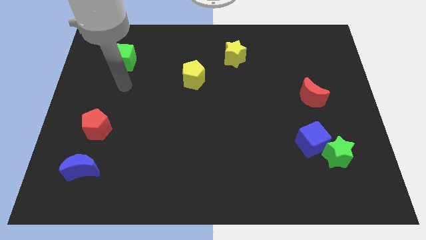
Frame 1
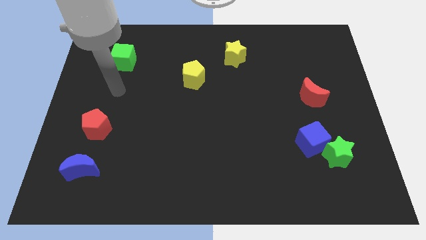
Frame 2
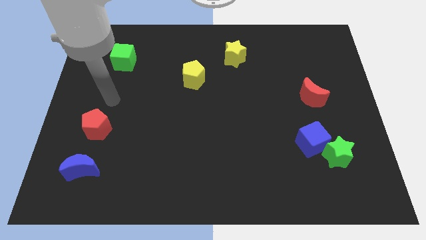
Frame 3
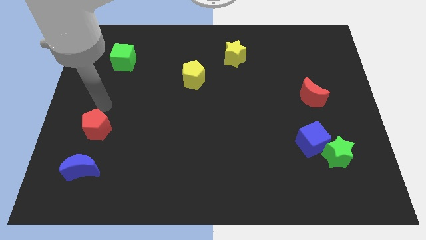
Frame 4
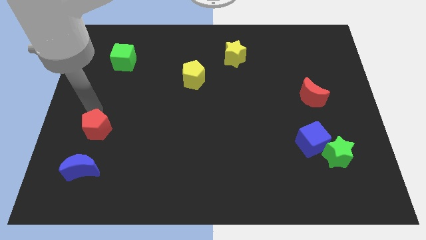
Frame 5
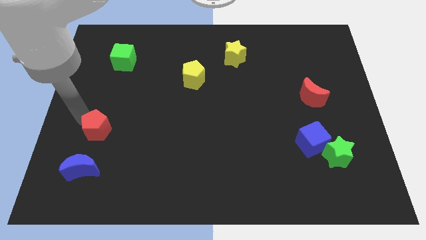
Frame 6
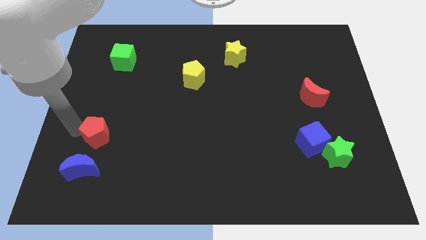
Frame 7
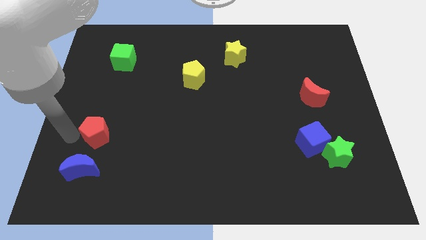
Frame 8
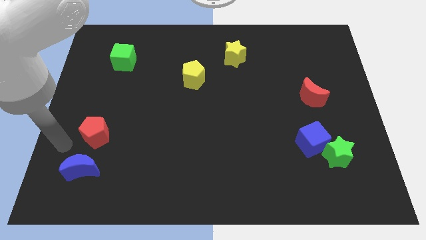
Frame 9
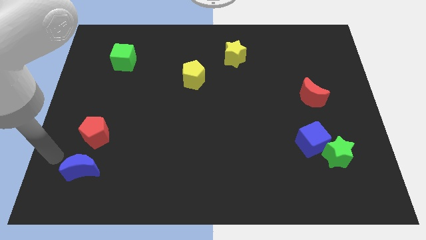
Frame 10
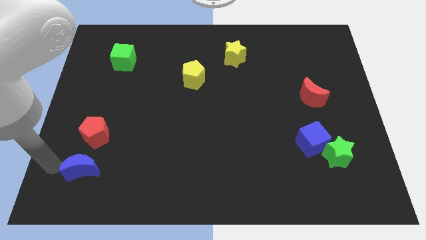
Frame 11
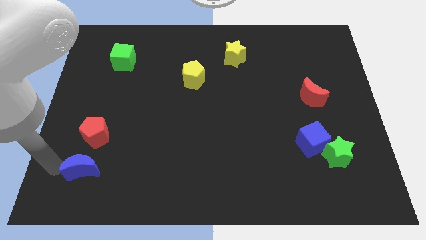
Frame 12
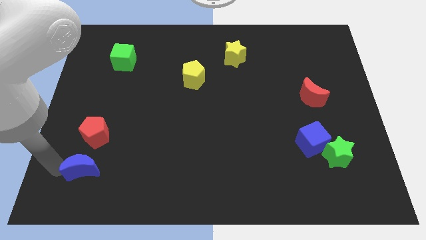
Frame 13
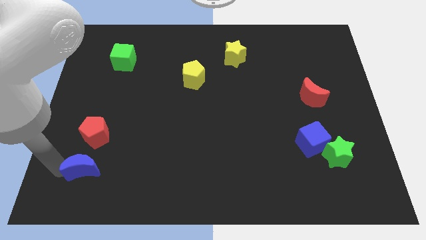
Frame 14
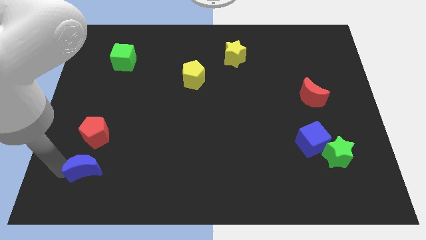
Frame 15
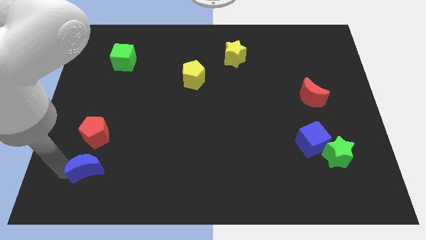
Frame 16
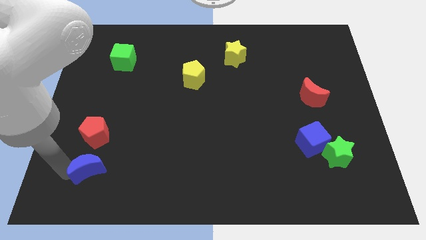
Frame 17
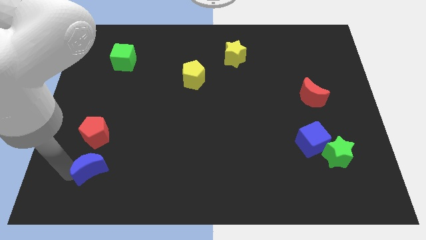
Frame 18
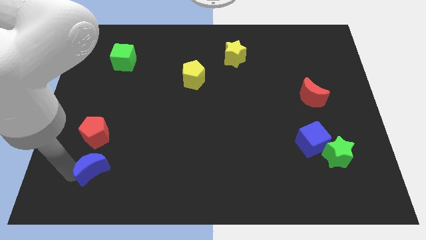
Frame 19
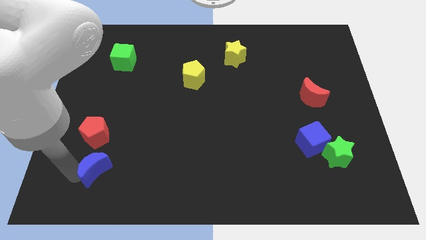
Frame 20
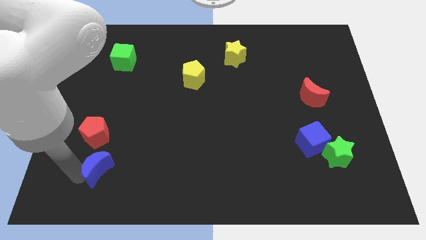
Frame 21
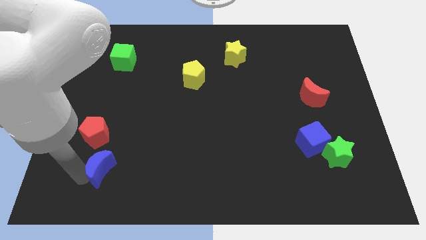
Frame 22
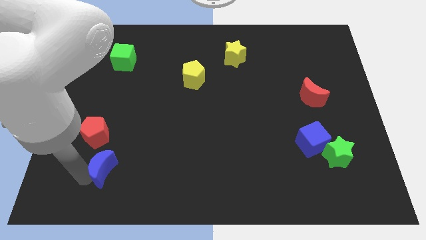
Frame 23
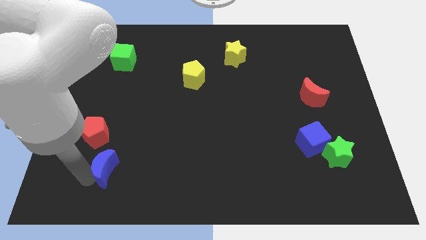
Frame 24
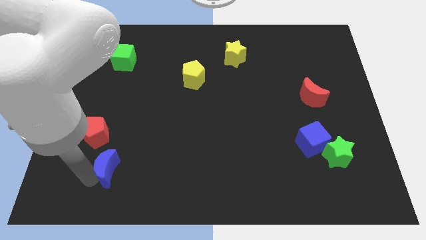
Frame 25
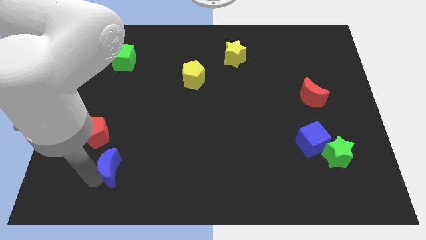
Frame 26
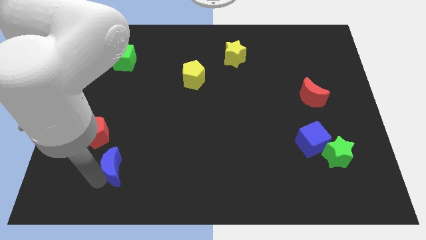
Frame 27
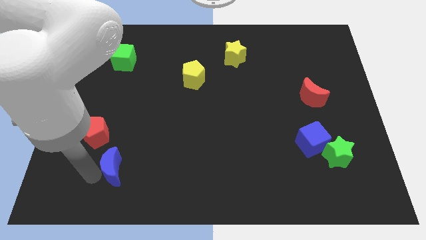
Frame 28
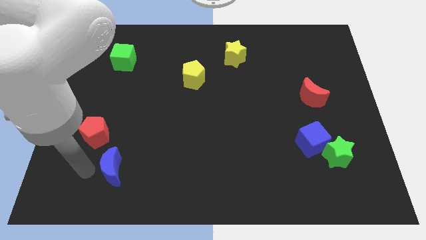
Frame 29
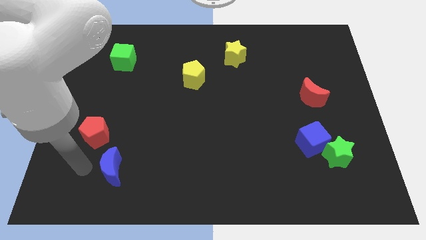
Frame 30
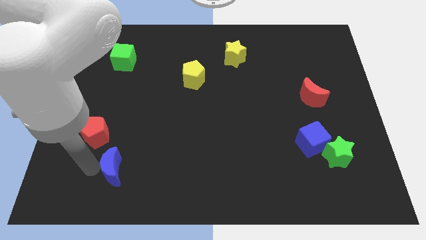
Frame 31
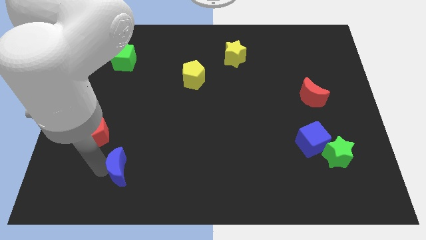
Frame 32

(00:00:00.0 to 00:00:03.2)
slightly slide the blue moon to the right

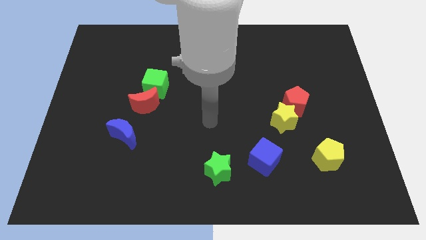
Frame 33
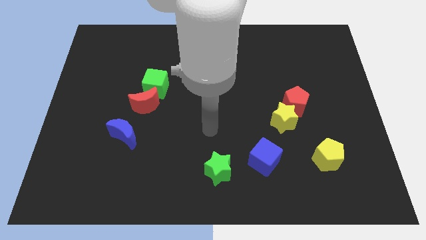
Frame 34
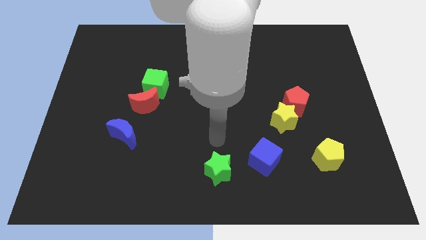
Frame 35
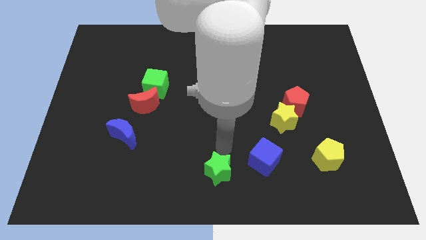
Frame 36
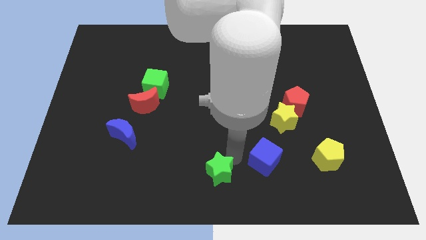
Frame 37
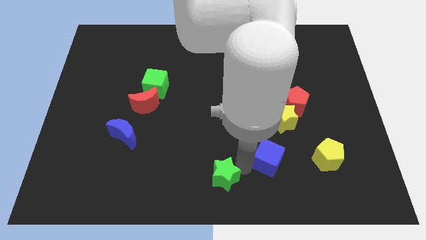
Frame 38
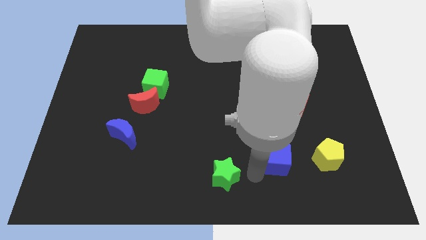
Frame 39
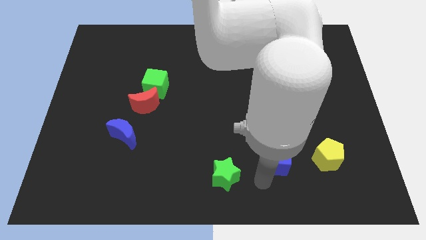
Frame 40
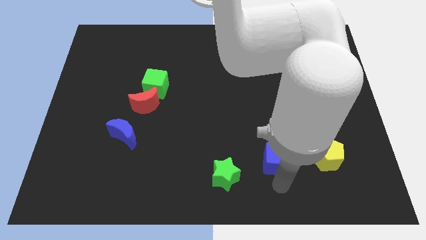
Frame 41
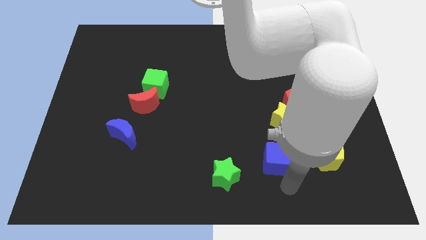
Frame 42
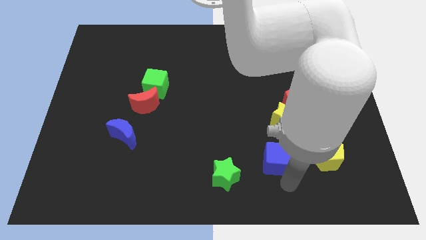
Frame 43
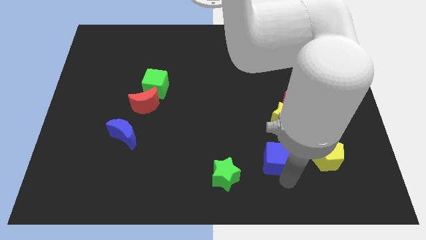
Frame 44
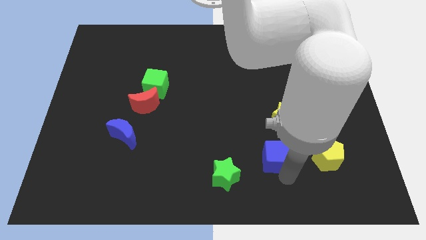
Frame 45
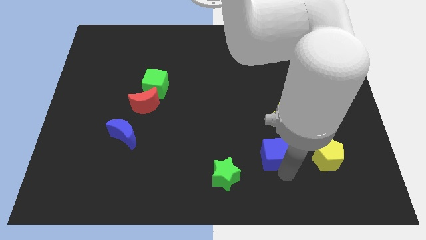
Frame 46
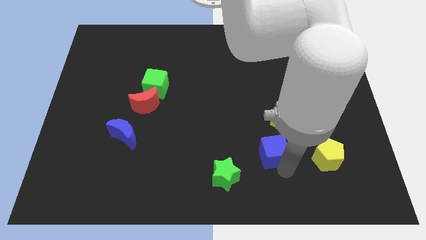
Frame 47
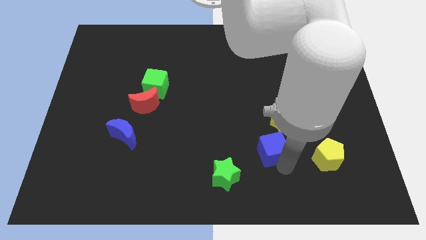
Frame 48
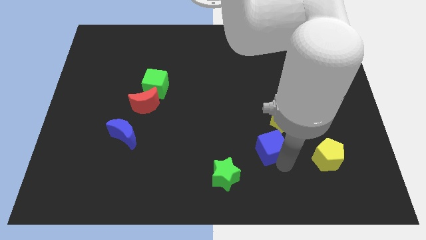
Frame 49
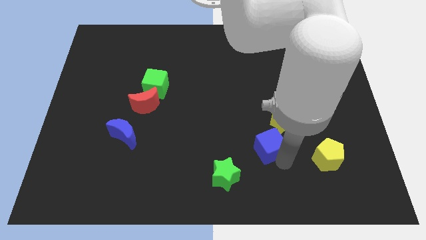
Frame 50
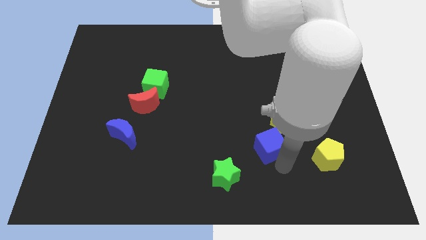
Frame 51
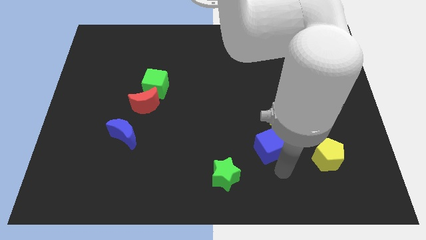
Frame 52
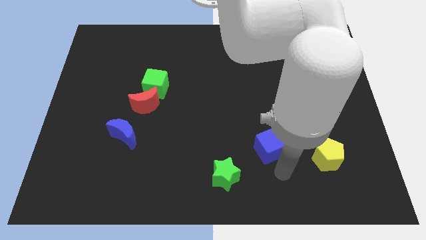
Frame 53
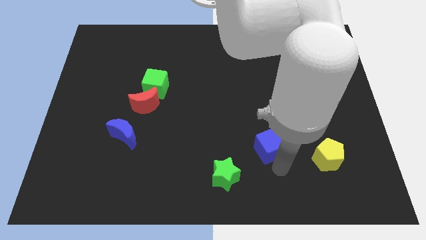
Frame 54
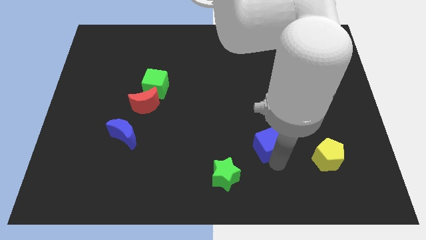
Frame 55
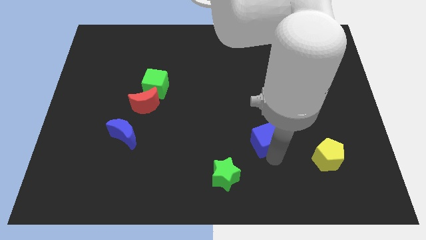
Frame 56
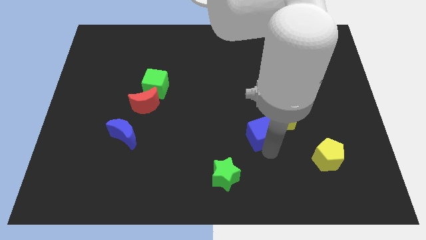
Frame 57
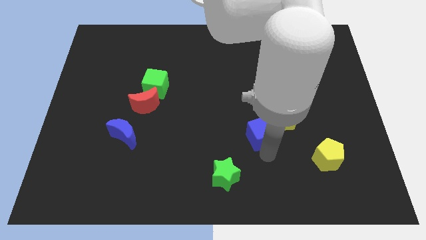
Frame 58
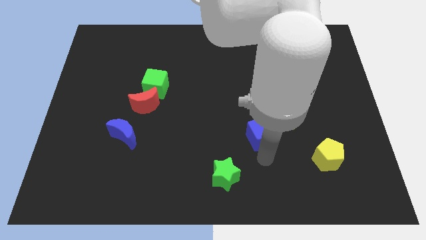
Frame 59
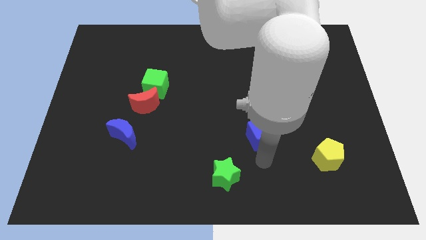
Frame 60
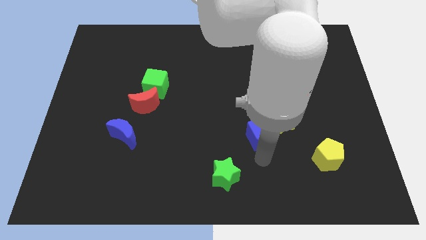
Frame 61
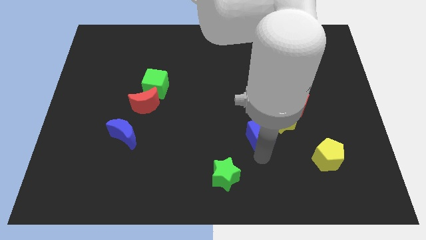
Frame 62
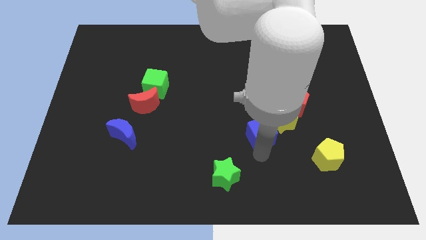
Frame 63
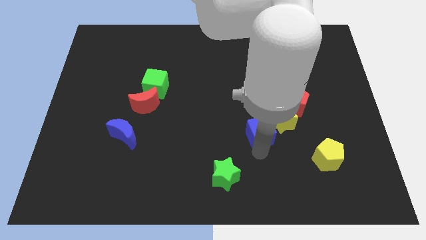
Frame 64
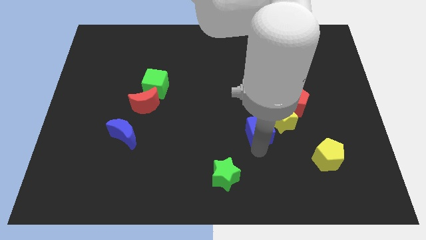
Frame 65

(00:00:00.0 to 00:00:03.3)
slightly move the blue cube up

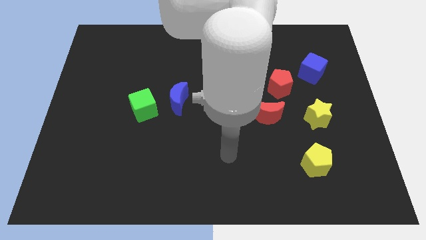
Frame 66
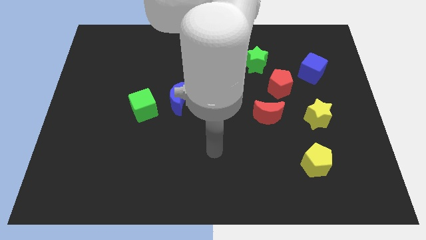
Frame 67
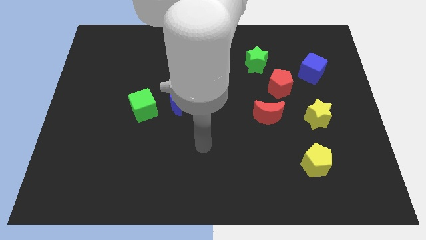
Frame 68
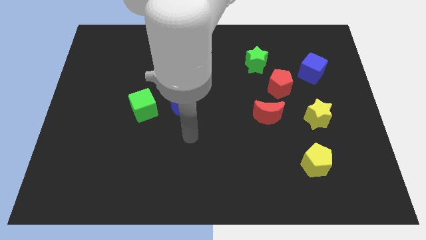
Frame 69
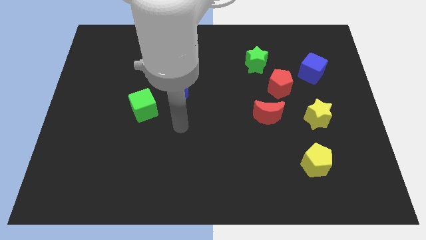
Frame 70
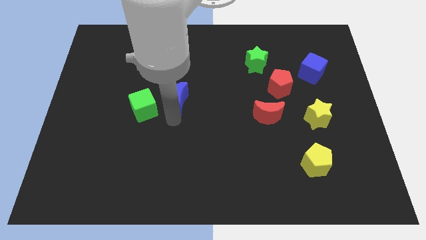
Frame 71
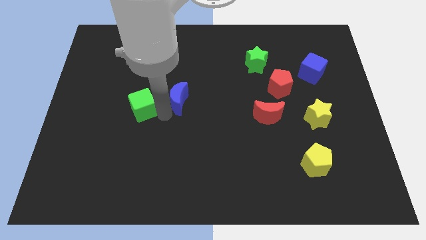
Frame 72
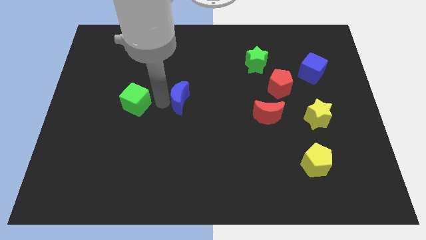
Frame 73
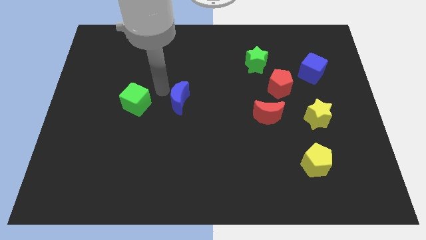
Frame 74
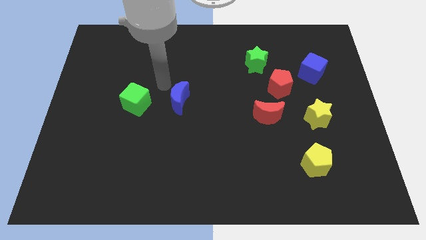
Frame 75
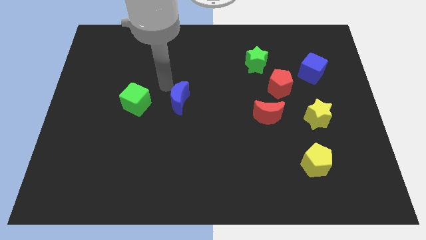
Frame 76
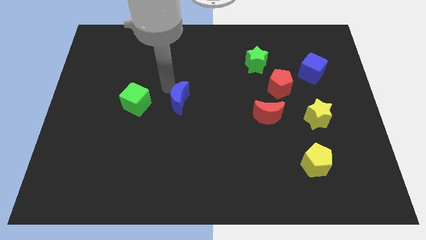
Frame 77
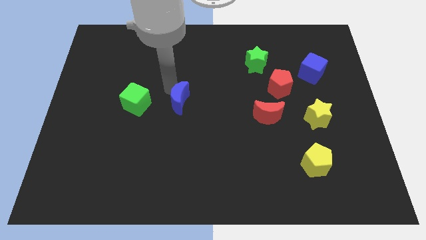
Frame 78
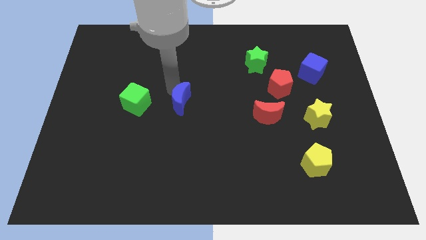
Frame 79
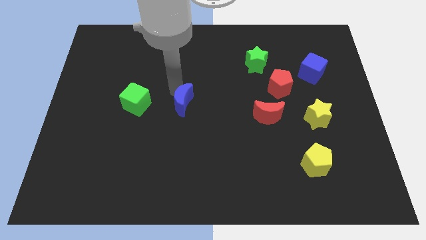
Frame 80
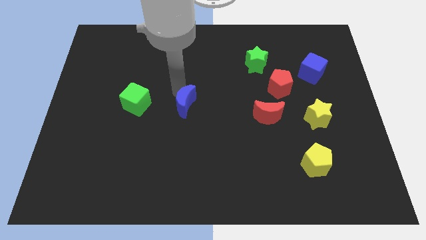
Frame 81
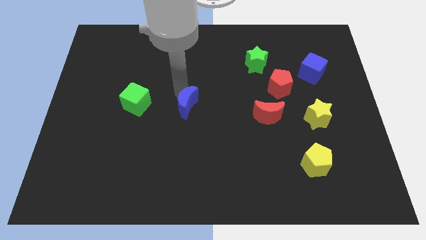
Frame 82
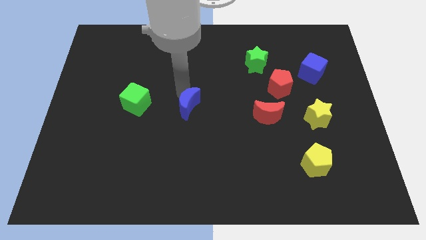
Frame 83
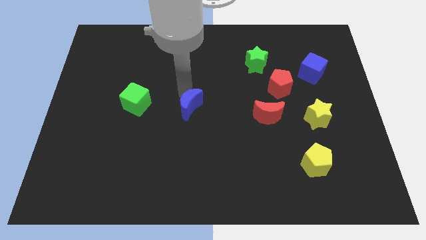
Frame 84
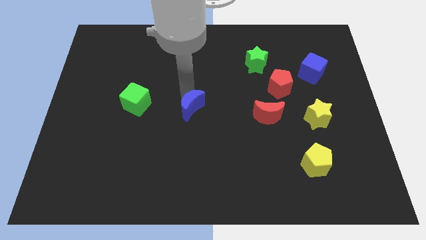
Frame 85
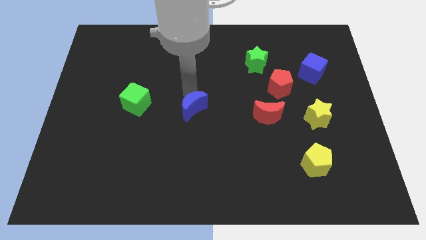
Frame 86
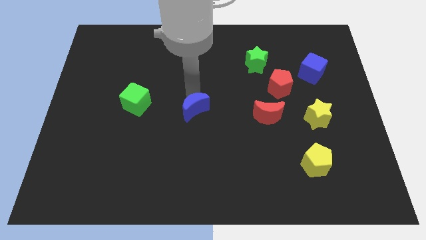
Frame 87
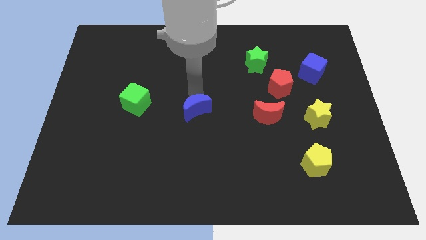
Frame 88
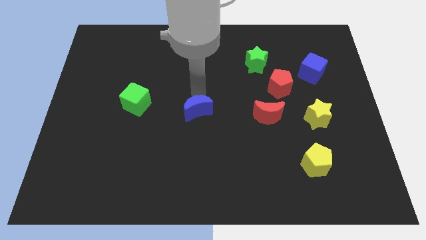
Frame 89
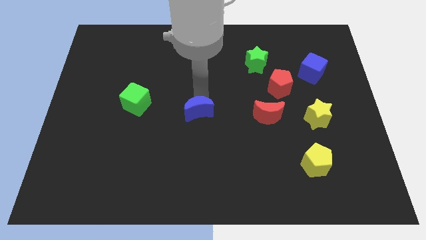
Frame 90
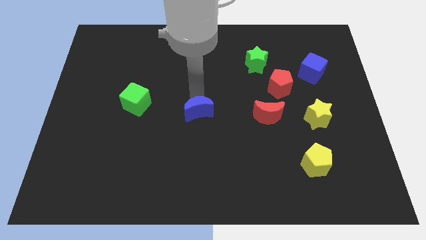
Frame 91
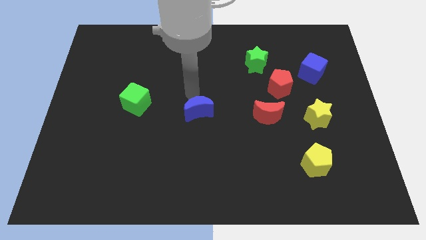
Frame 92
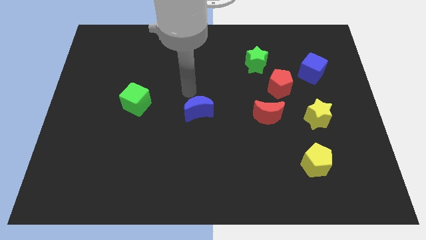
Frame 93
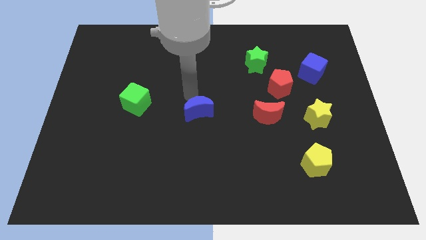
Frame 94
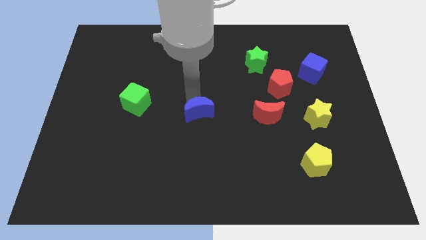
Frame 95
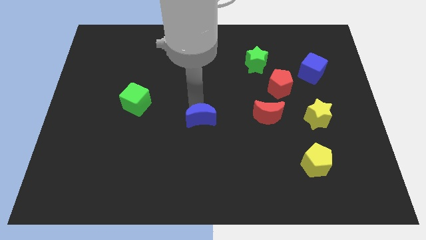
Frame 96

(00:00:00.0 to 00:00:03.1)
push the blue moon downwards and then to the right a little bit
